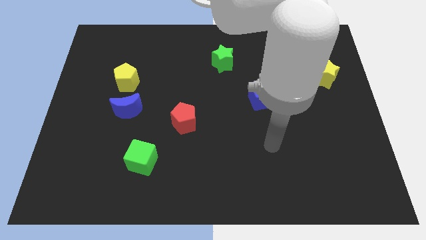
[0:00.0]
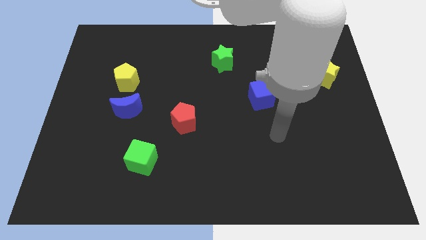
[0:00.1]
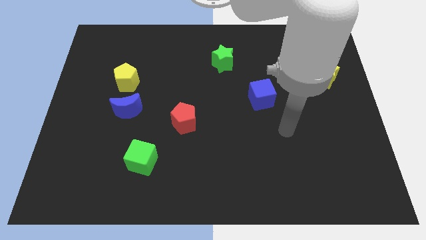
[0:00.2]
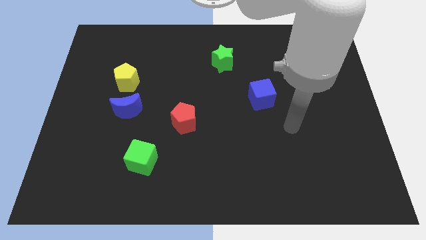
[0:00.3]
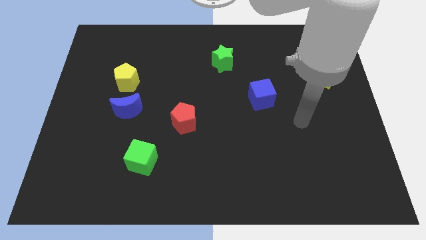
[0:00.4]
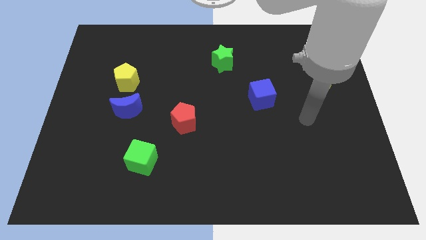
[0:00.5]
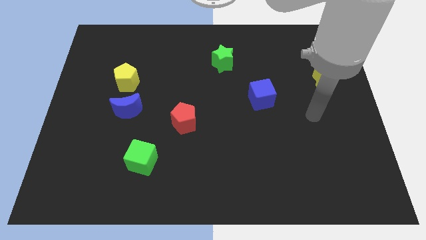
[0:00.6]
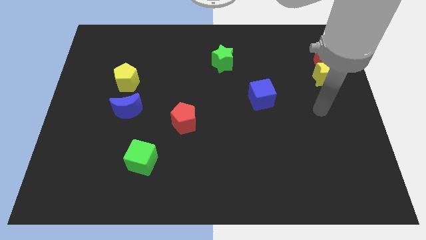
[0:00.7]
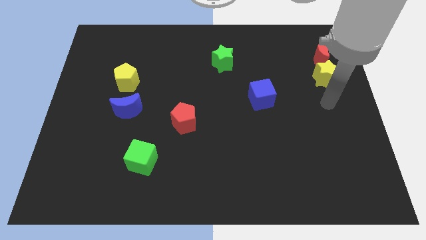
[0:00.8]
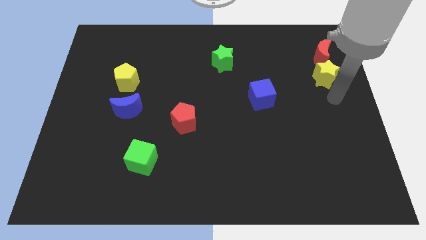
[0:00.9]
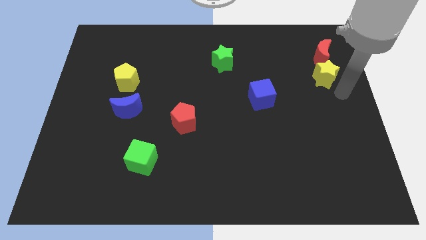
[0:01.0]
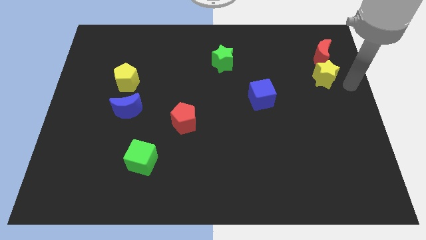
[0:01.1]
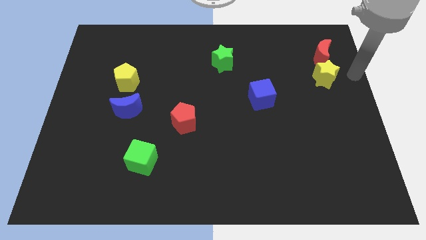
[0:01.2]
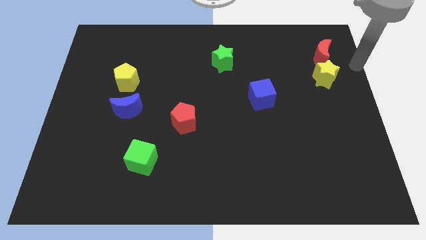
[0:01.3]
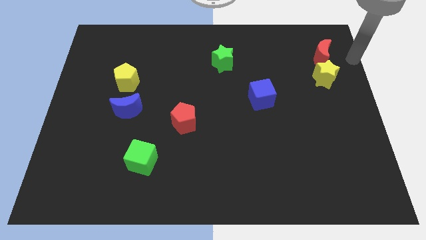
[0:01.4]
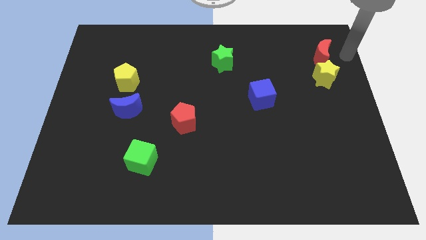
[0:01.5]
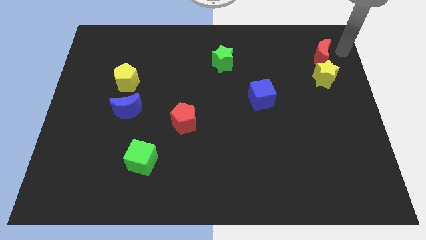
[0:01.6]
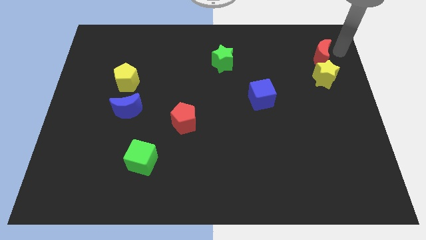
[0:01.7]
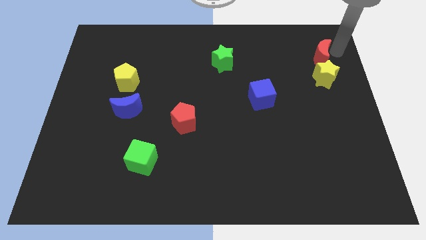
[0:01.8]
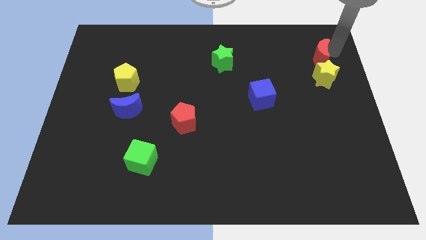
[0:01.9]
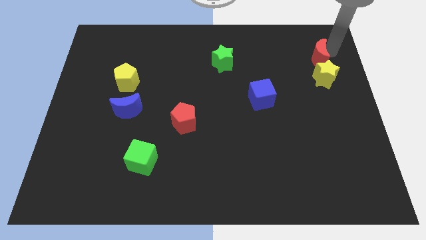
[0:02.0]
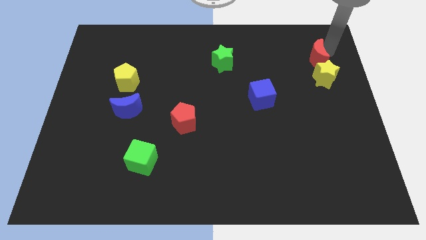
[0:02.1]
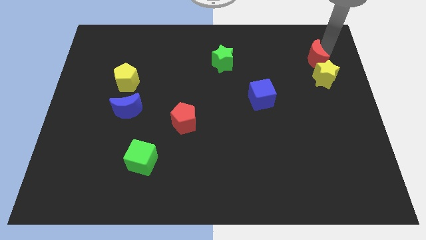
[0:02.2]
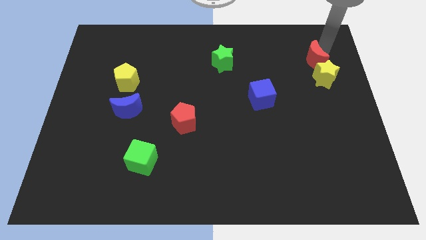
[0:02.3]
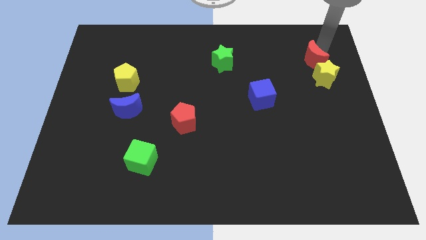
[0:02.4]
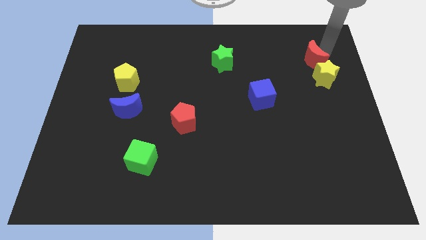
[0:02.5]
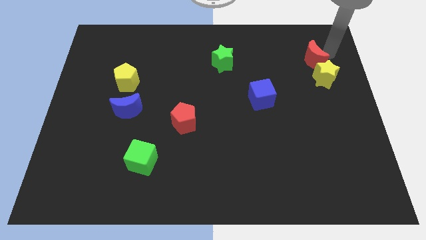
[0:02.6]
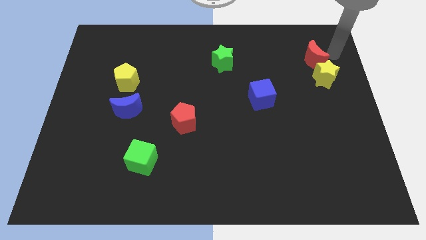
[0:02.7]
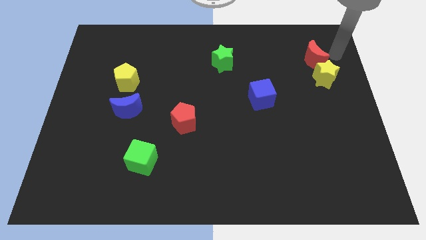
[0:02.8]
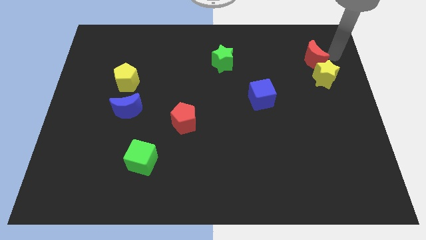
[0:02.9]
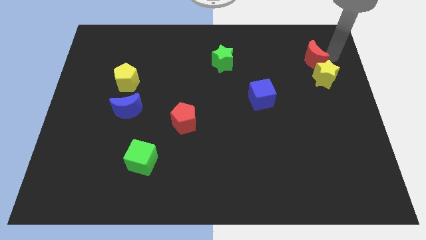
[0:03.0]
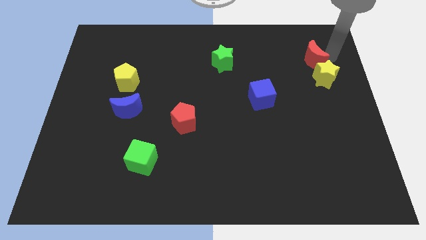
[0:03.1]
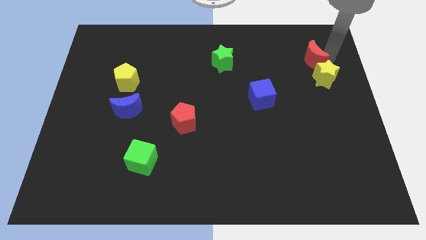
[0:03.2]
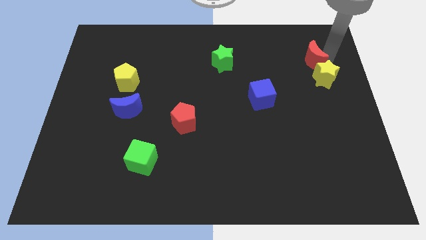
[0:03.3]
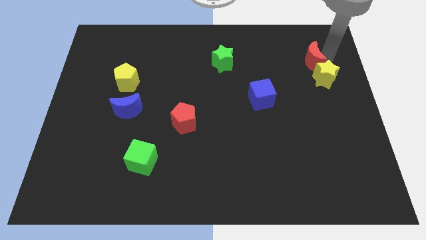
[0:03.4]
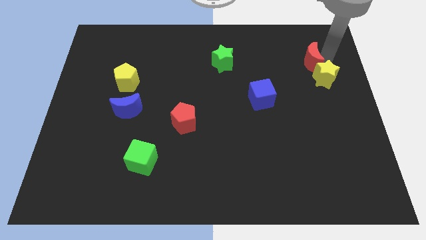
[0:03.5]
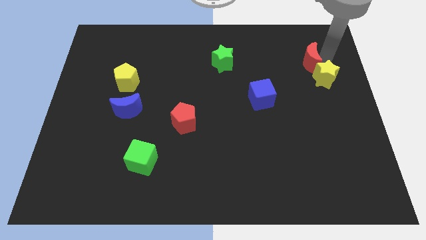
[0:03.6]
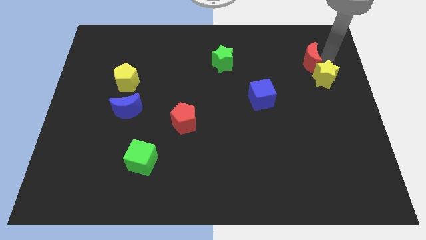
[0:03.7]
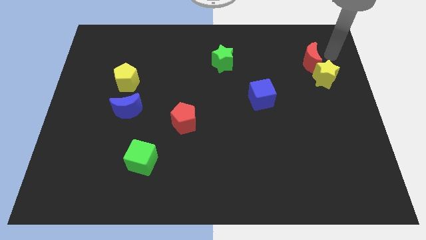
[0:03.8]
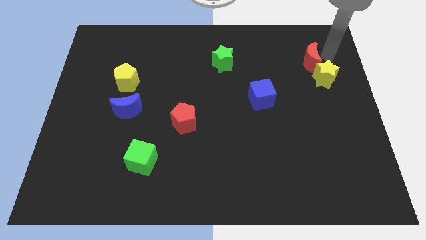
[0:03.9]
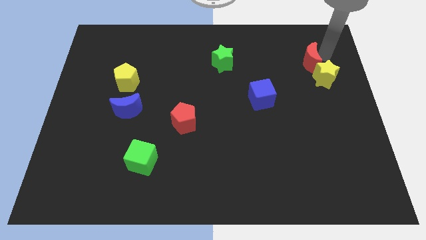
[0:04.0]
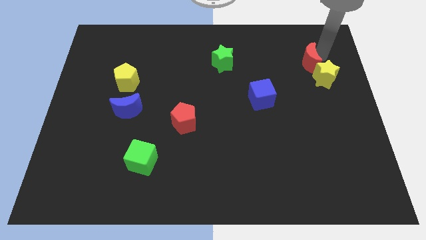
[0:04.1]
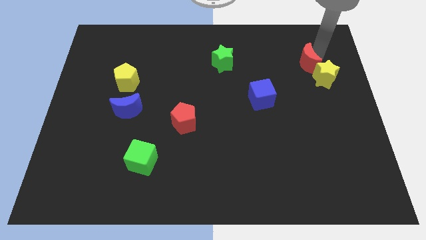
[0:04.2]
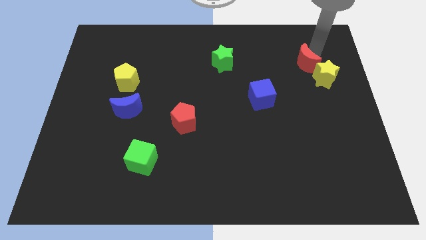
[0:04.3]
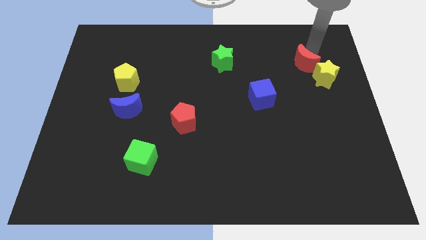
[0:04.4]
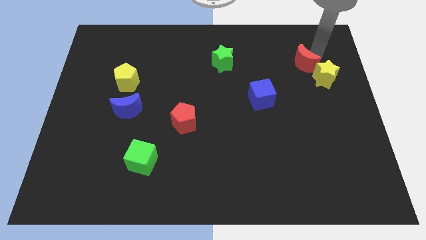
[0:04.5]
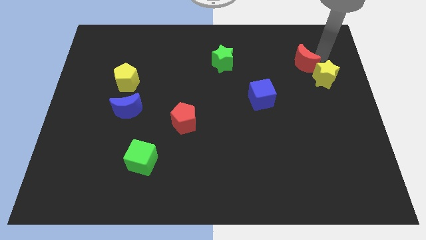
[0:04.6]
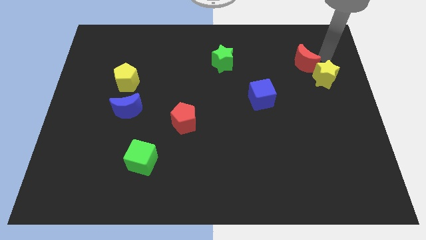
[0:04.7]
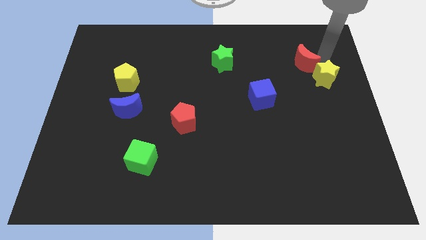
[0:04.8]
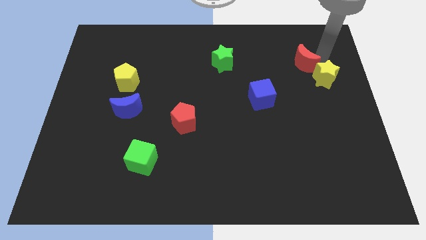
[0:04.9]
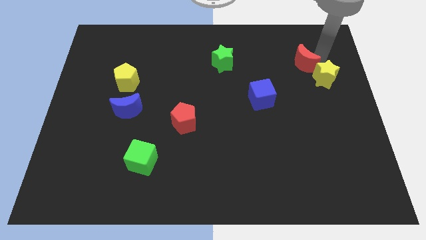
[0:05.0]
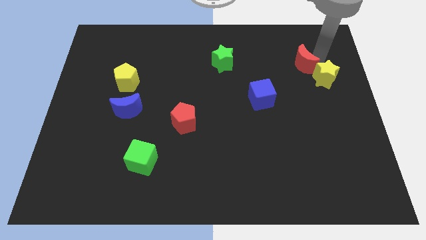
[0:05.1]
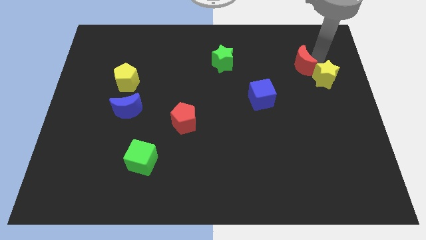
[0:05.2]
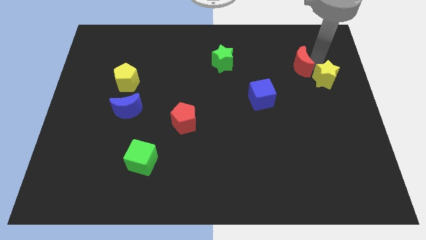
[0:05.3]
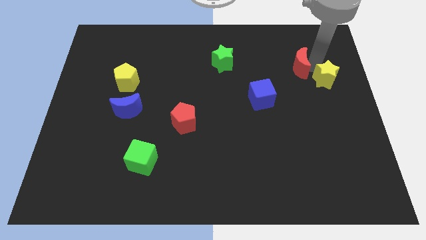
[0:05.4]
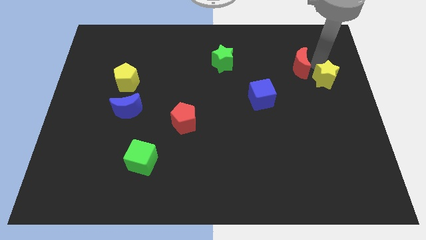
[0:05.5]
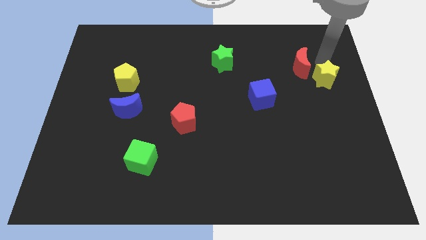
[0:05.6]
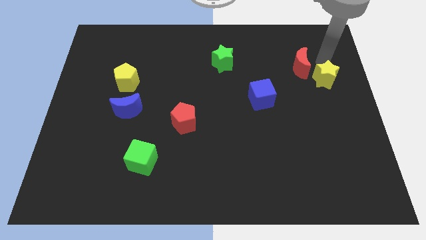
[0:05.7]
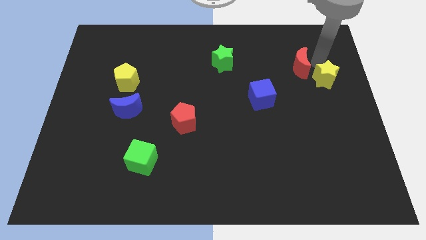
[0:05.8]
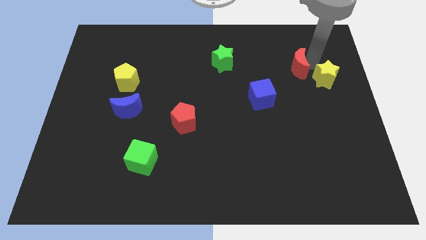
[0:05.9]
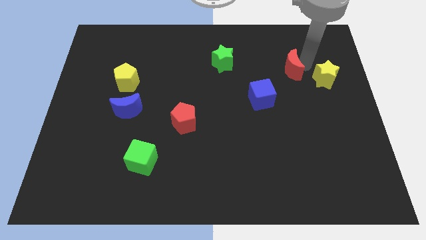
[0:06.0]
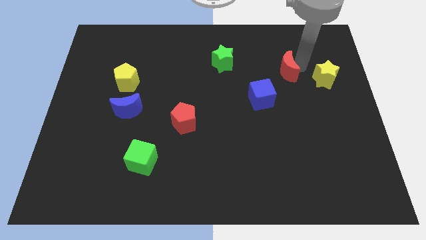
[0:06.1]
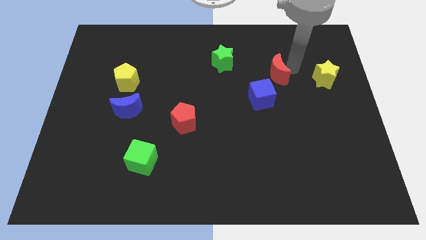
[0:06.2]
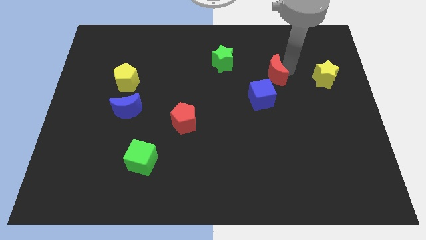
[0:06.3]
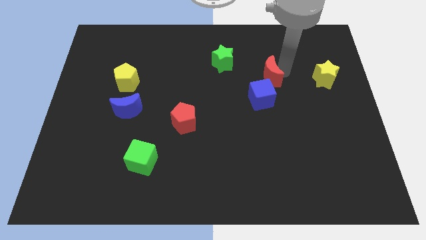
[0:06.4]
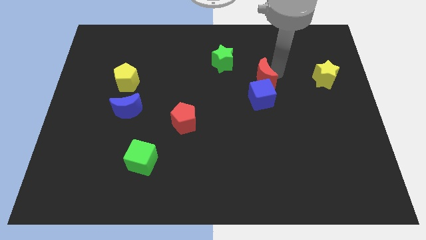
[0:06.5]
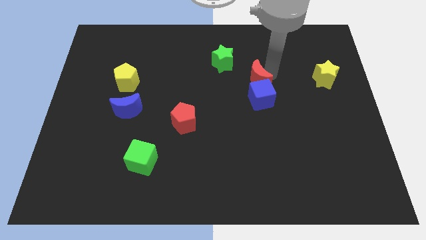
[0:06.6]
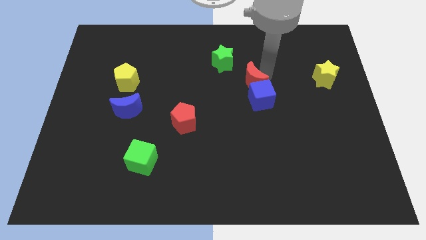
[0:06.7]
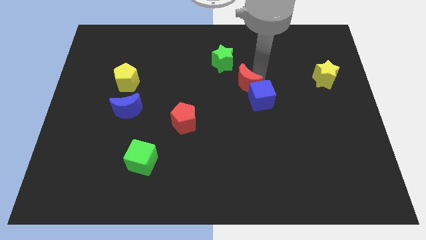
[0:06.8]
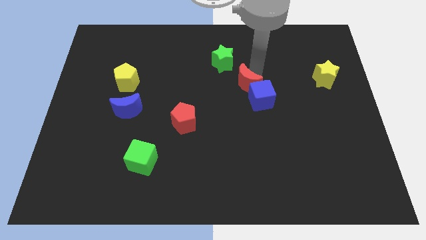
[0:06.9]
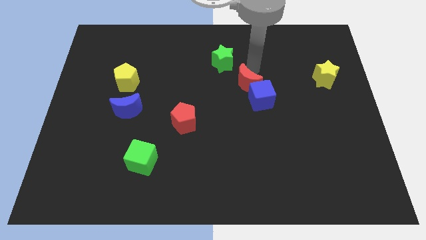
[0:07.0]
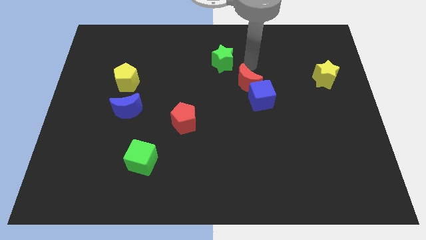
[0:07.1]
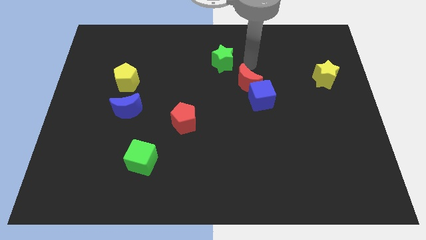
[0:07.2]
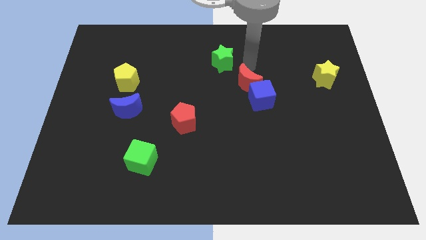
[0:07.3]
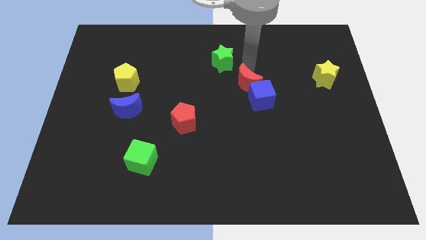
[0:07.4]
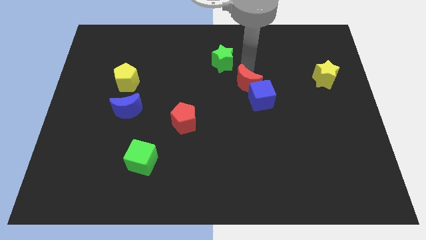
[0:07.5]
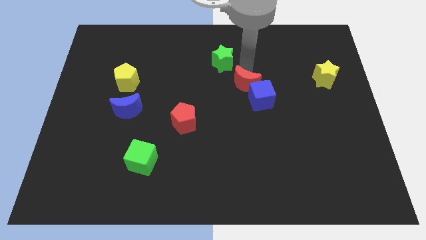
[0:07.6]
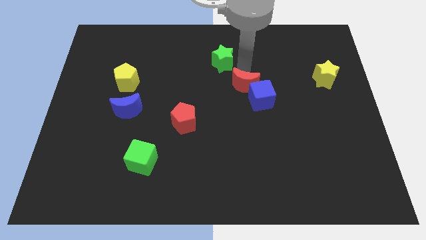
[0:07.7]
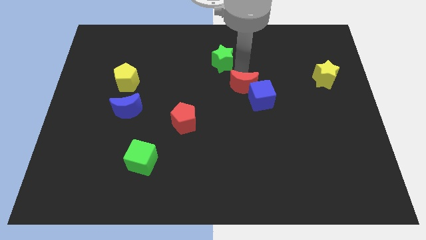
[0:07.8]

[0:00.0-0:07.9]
move the red moon down and left diagonally
